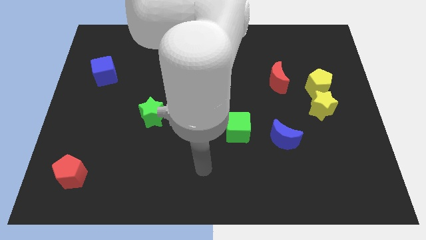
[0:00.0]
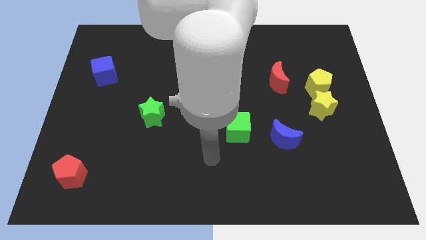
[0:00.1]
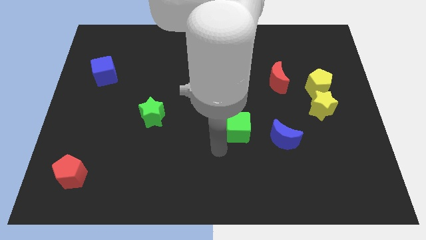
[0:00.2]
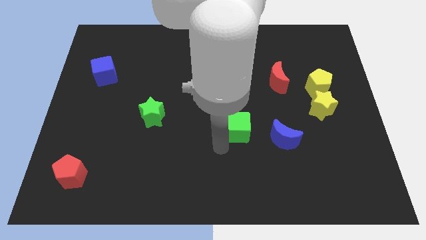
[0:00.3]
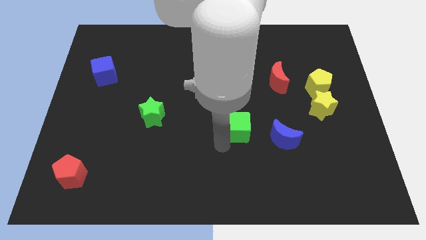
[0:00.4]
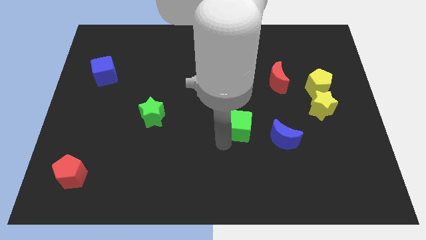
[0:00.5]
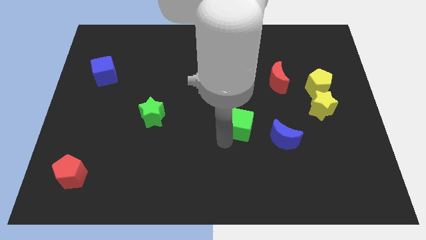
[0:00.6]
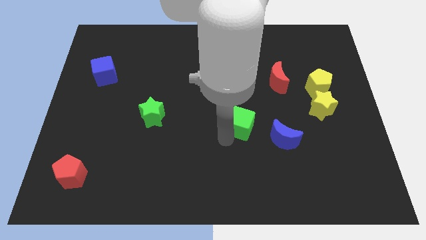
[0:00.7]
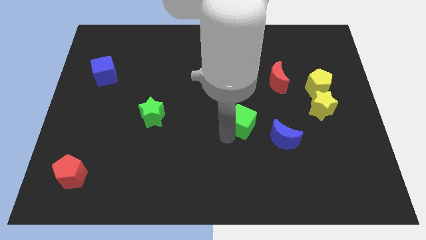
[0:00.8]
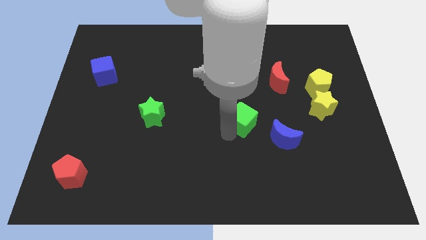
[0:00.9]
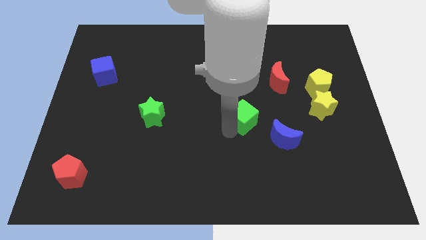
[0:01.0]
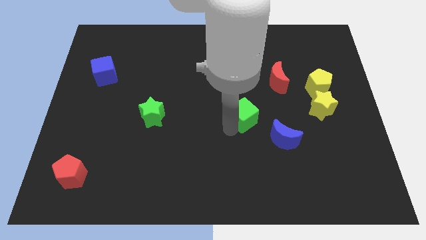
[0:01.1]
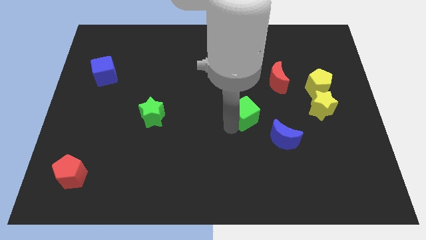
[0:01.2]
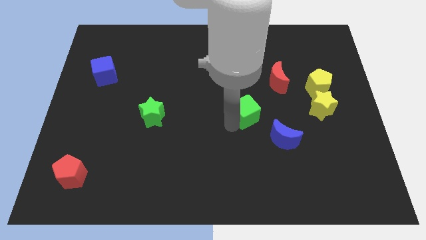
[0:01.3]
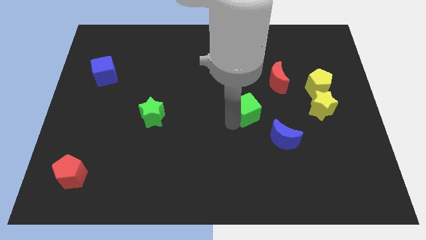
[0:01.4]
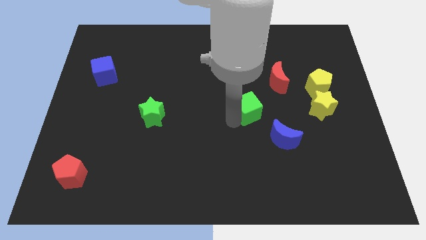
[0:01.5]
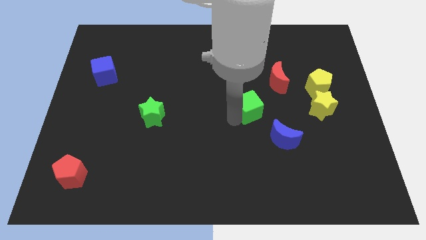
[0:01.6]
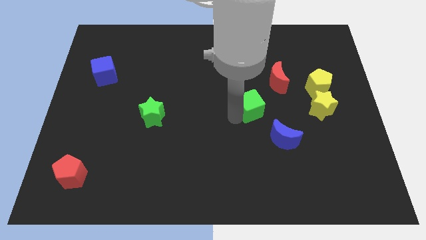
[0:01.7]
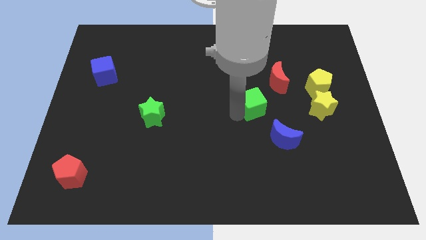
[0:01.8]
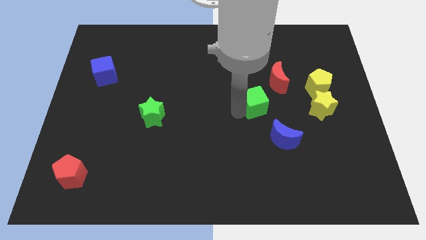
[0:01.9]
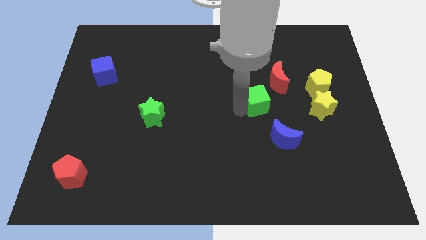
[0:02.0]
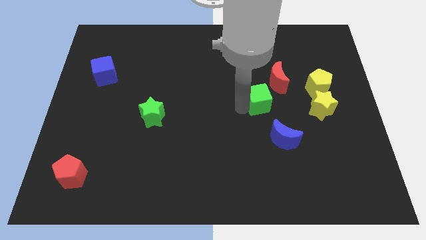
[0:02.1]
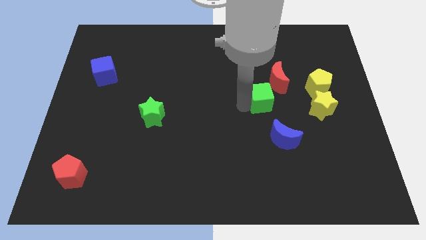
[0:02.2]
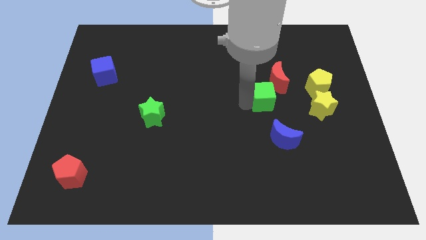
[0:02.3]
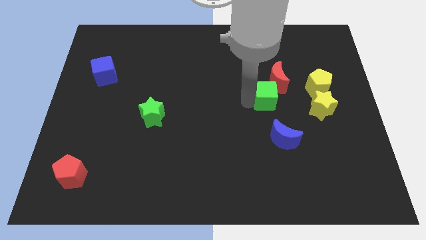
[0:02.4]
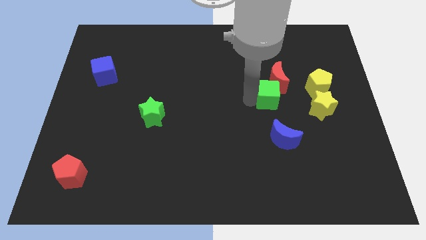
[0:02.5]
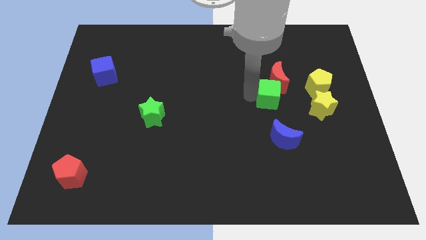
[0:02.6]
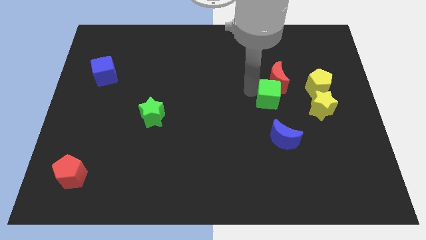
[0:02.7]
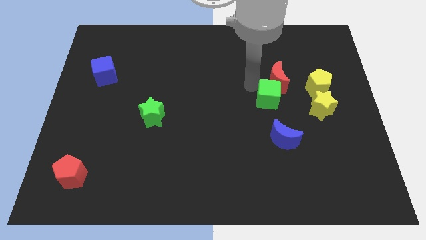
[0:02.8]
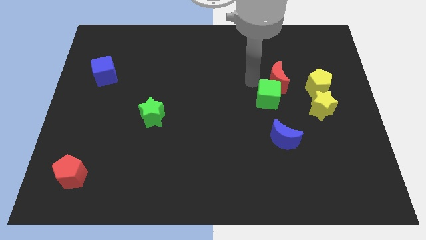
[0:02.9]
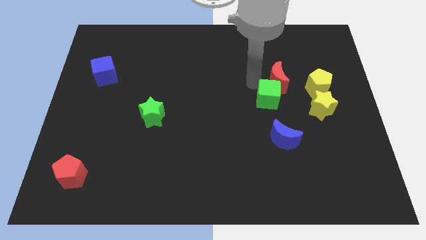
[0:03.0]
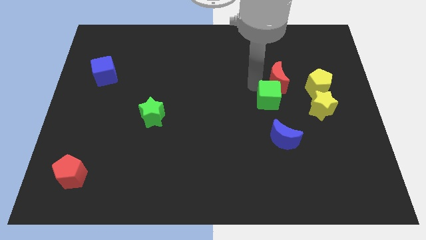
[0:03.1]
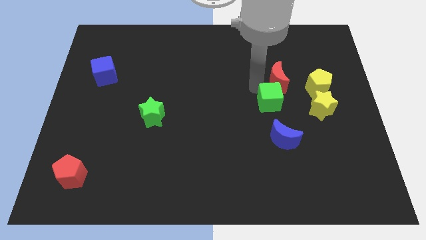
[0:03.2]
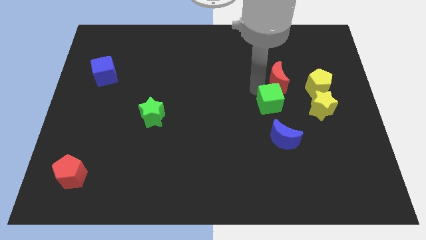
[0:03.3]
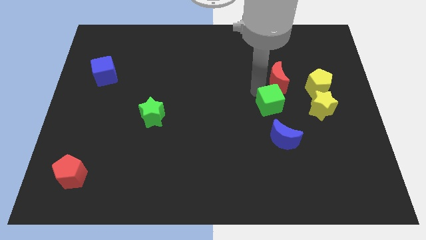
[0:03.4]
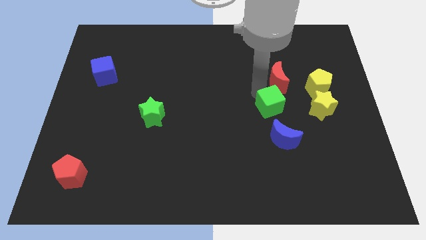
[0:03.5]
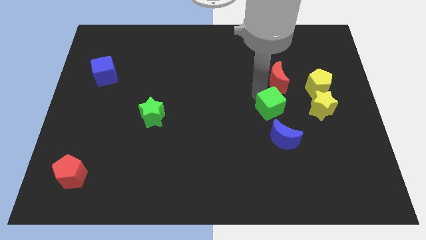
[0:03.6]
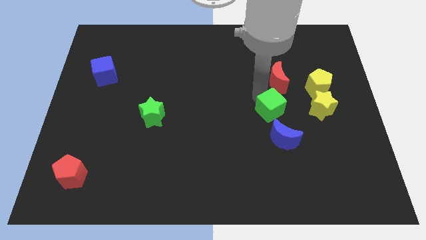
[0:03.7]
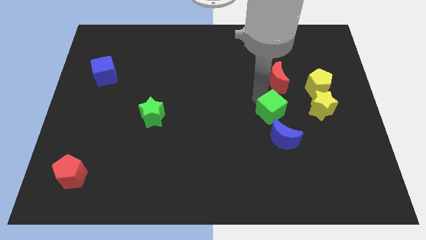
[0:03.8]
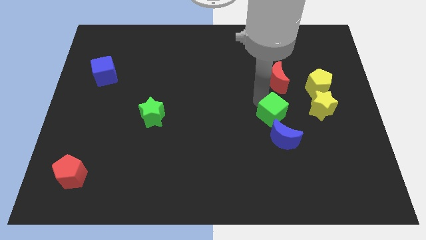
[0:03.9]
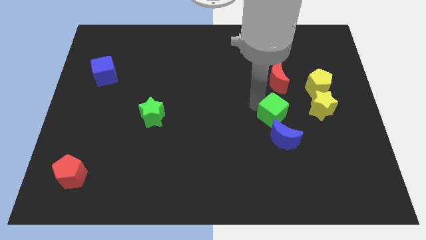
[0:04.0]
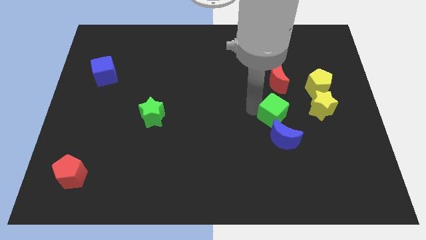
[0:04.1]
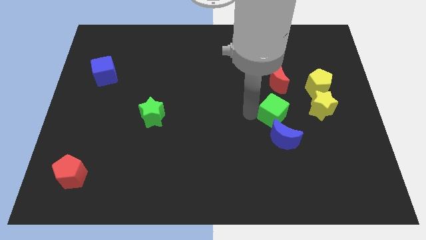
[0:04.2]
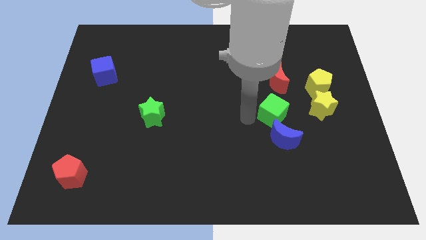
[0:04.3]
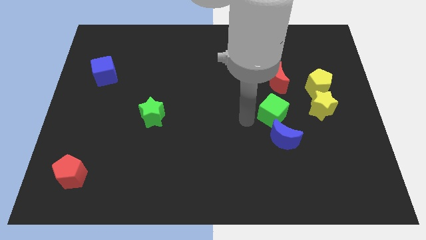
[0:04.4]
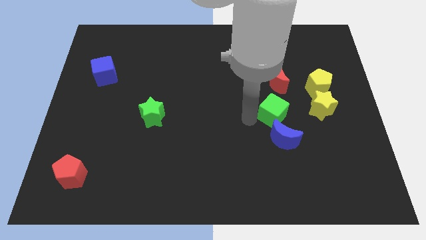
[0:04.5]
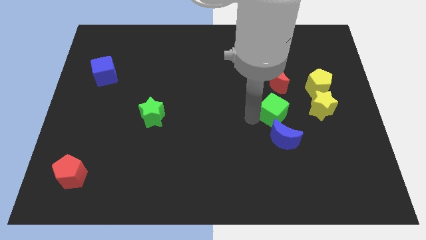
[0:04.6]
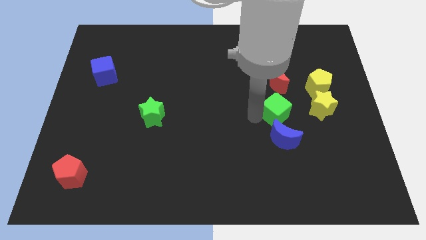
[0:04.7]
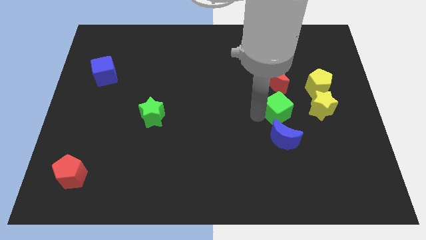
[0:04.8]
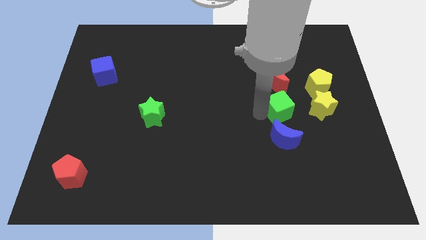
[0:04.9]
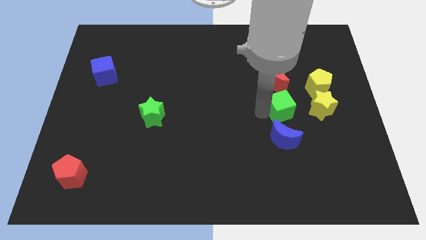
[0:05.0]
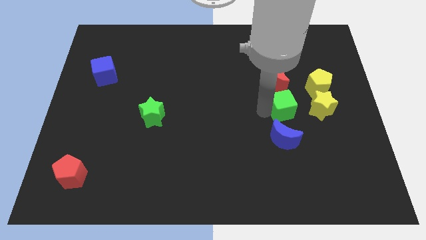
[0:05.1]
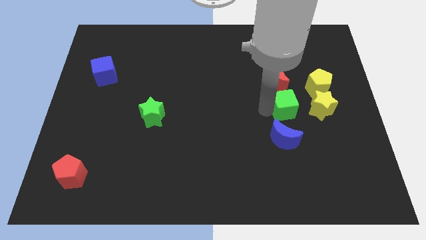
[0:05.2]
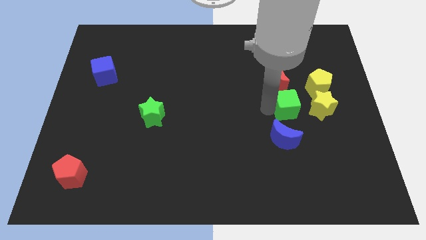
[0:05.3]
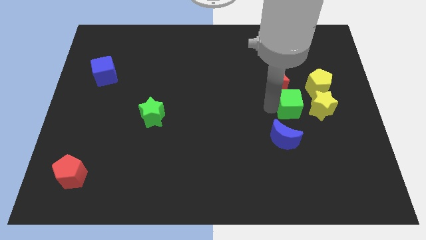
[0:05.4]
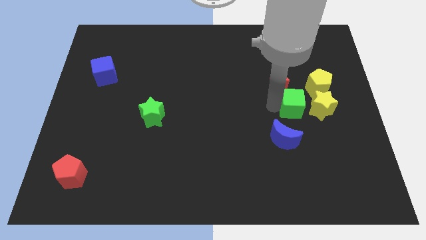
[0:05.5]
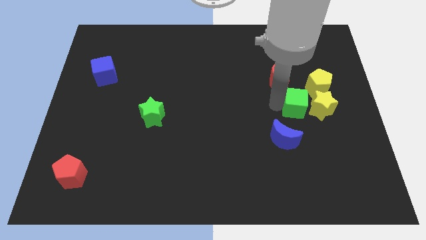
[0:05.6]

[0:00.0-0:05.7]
put the green cube to the yellow star

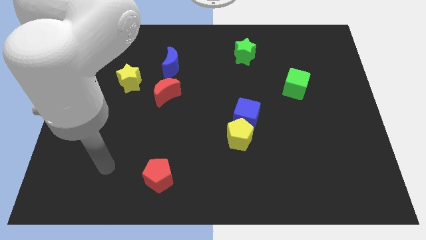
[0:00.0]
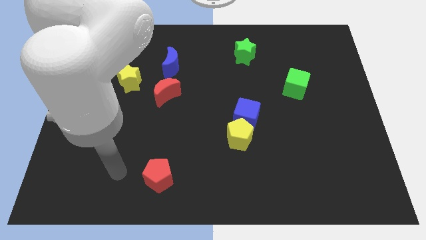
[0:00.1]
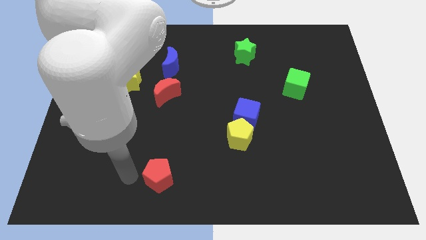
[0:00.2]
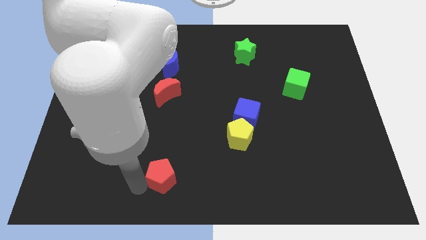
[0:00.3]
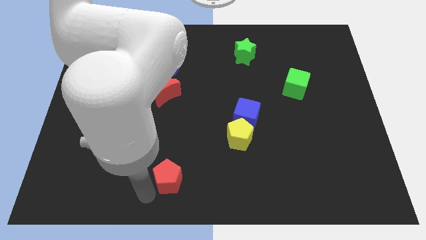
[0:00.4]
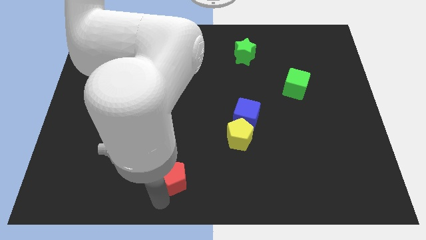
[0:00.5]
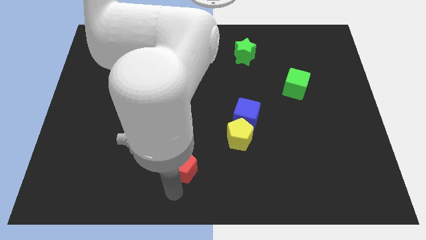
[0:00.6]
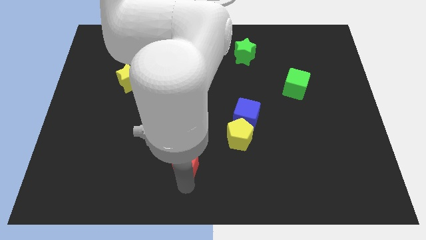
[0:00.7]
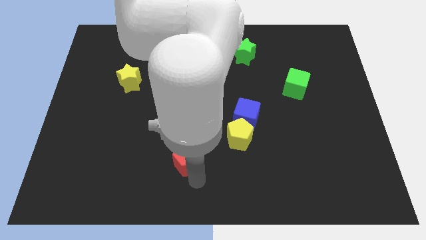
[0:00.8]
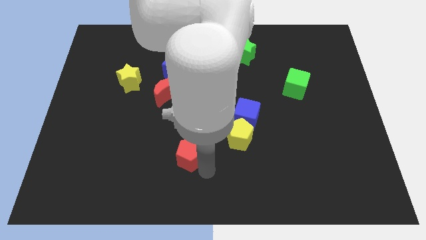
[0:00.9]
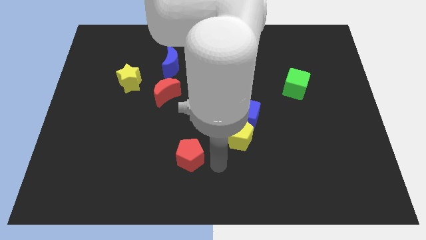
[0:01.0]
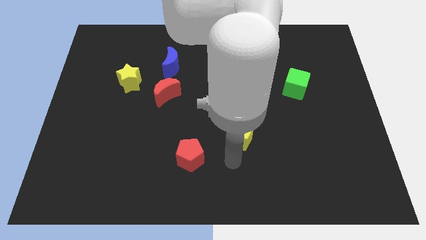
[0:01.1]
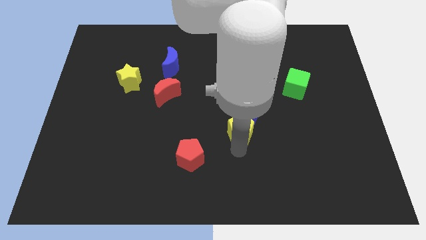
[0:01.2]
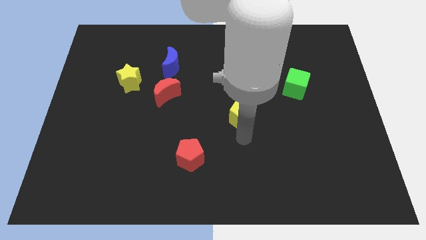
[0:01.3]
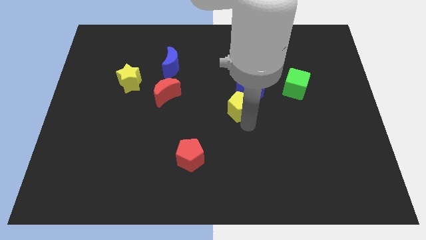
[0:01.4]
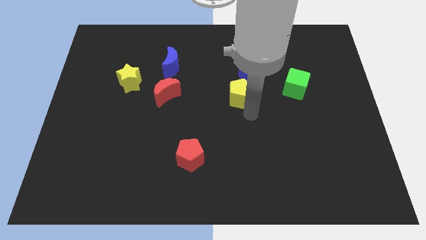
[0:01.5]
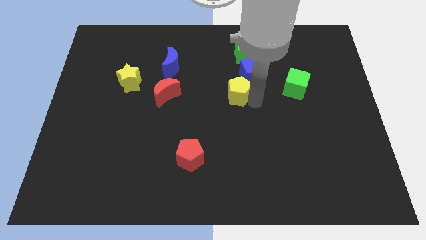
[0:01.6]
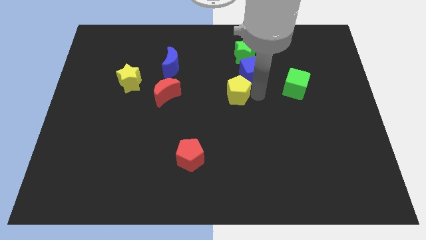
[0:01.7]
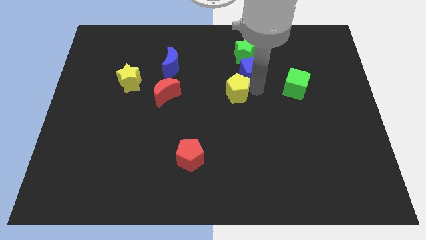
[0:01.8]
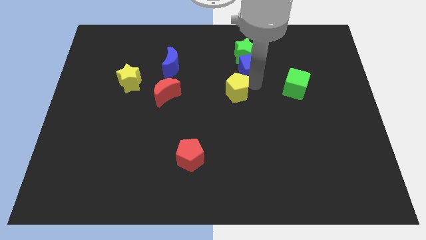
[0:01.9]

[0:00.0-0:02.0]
put the blue cube next to the green star
